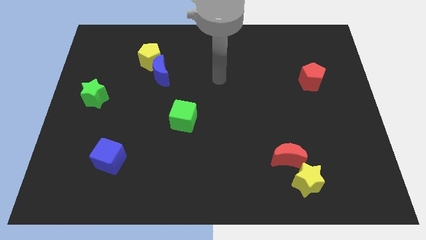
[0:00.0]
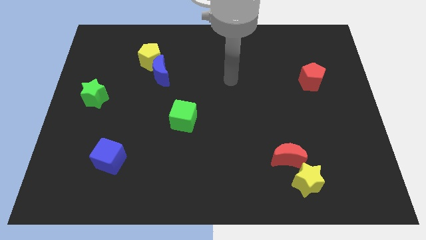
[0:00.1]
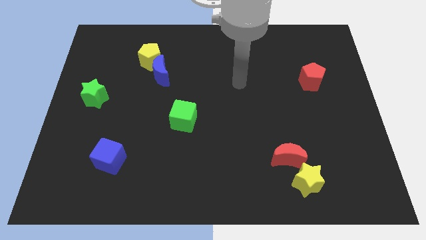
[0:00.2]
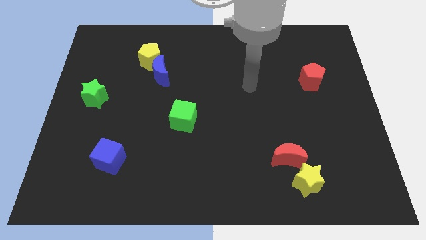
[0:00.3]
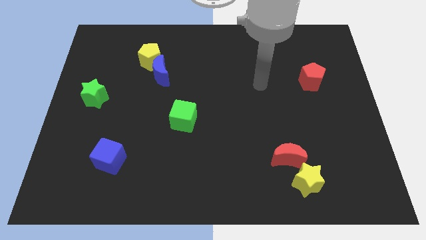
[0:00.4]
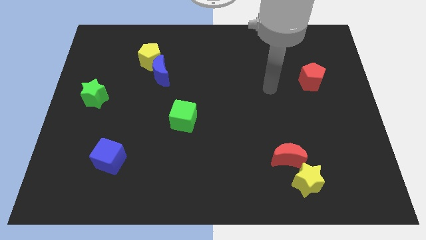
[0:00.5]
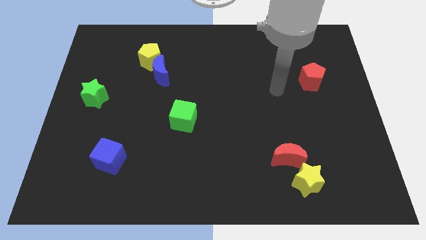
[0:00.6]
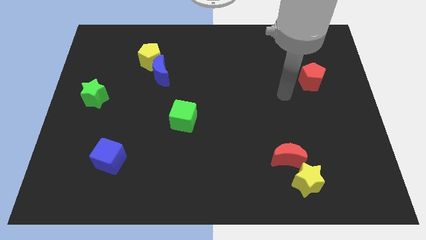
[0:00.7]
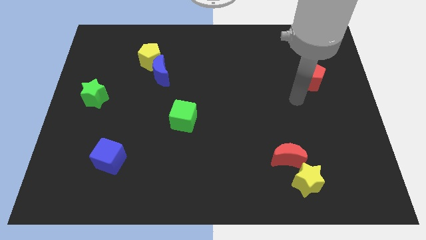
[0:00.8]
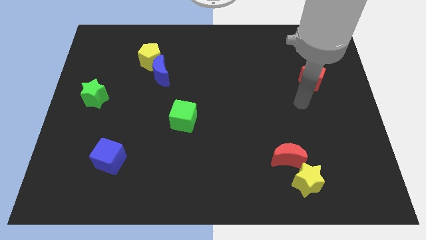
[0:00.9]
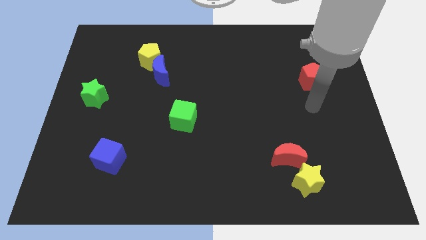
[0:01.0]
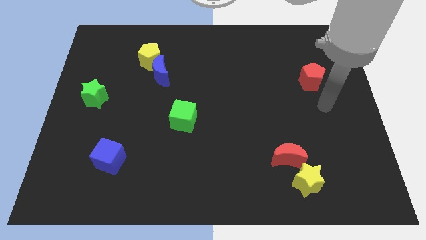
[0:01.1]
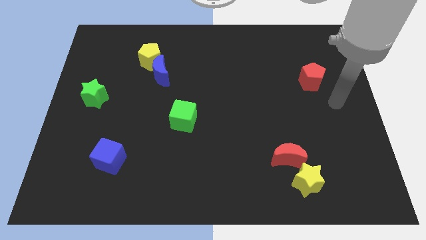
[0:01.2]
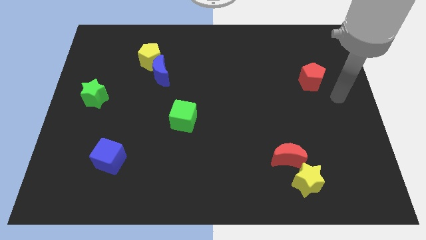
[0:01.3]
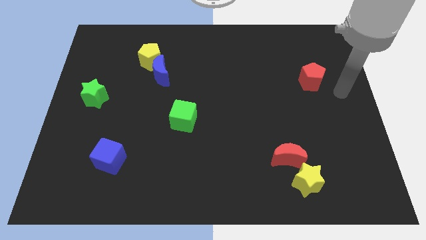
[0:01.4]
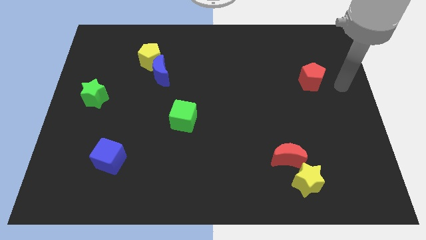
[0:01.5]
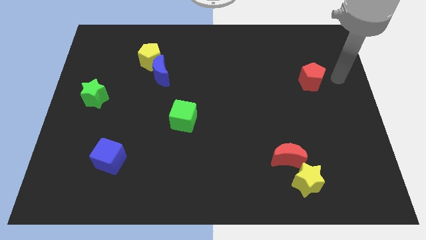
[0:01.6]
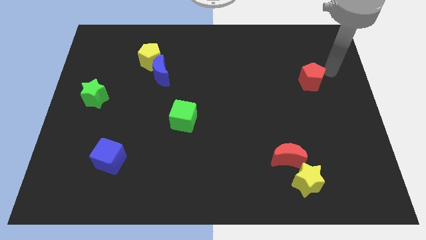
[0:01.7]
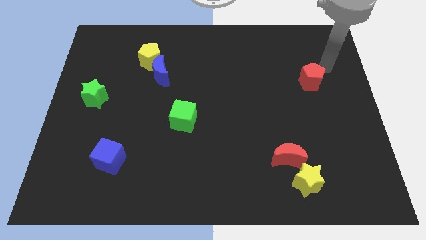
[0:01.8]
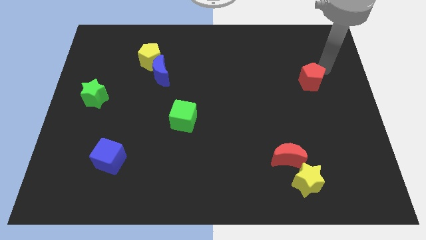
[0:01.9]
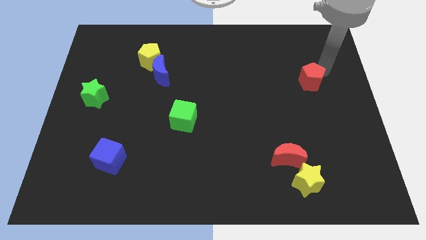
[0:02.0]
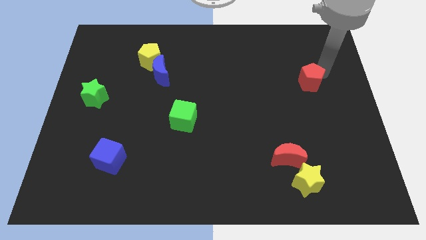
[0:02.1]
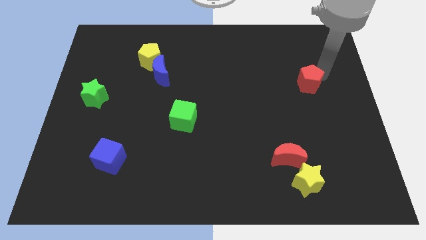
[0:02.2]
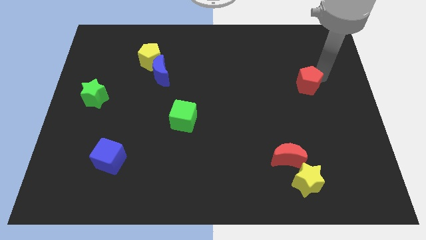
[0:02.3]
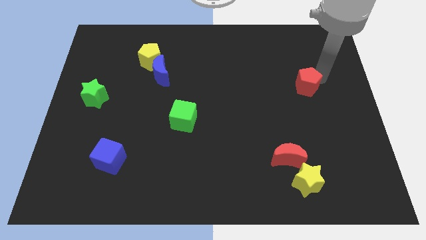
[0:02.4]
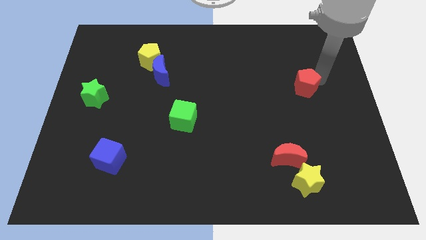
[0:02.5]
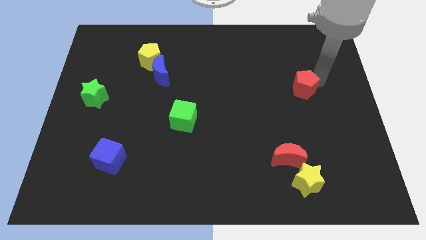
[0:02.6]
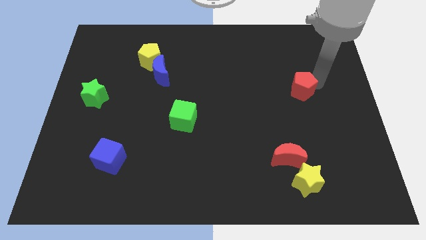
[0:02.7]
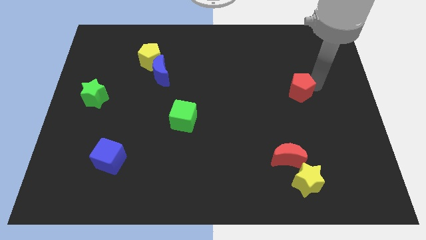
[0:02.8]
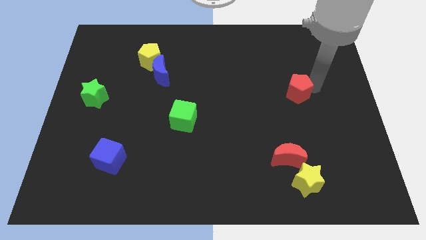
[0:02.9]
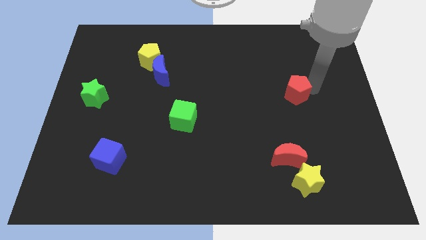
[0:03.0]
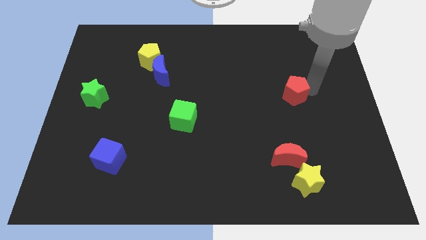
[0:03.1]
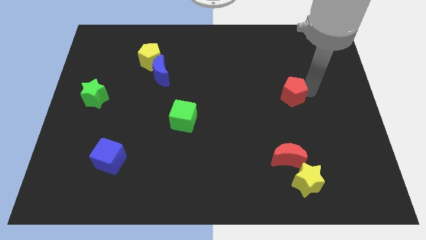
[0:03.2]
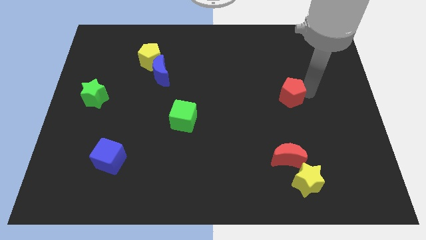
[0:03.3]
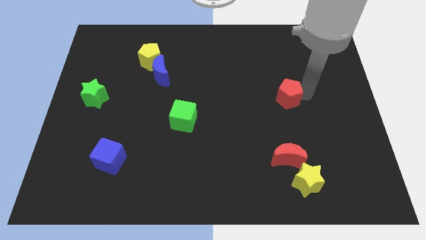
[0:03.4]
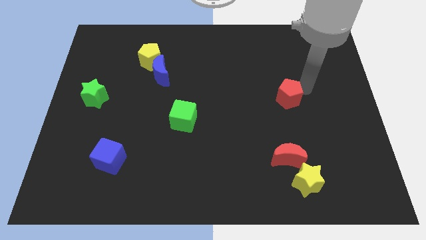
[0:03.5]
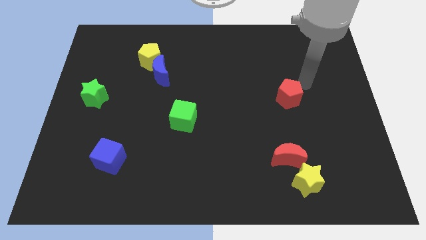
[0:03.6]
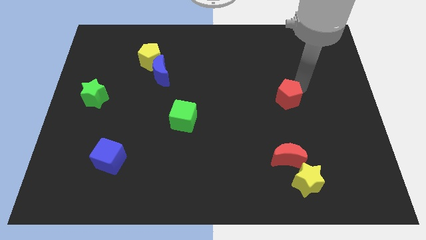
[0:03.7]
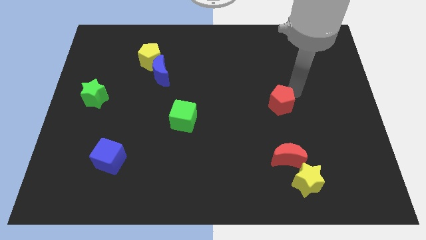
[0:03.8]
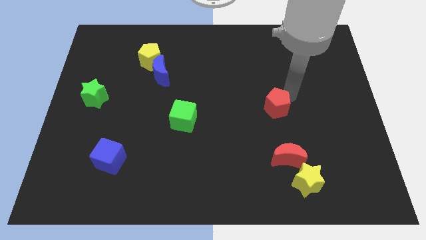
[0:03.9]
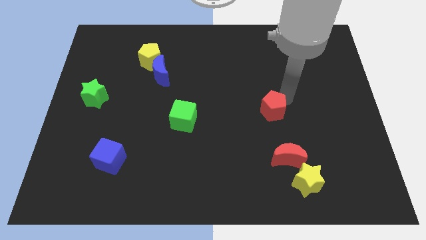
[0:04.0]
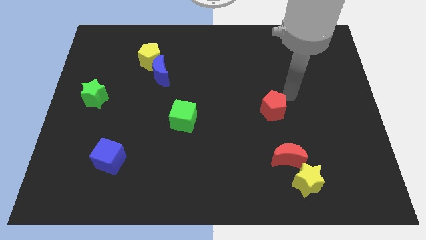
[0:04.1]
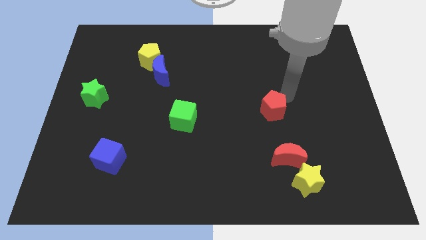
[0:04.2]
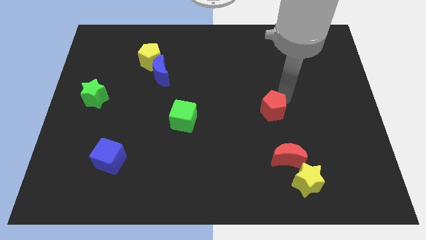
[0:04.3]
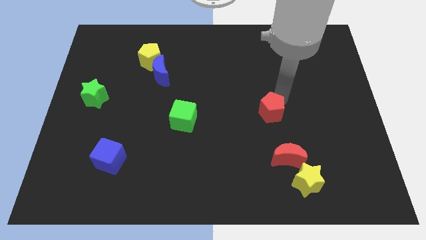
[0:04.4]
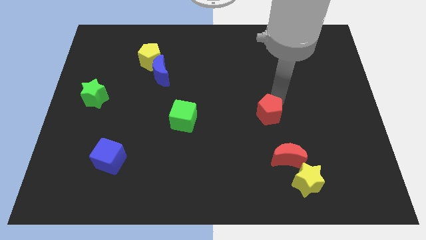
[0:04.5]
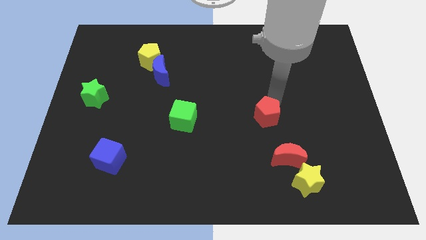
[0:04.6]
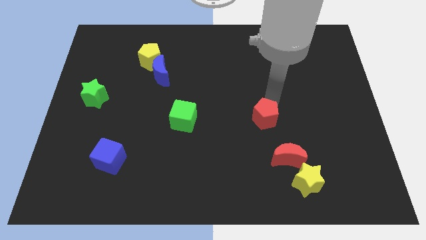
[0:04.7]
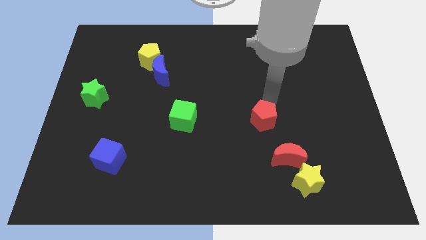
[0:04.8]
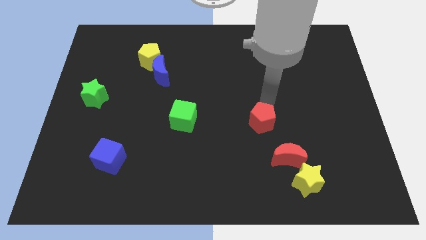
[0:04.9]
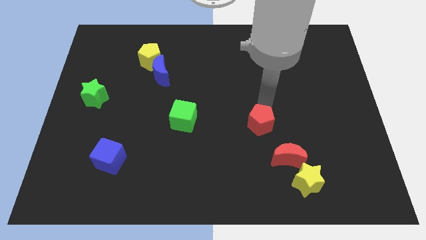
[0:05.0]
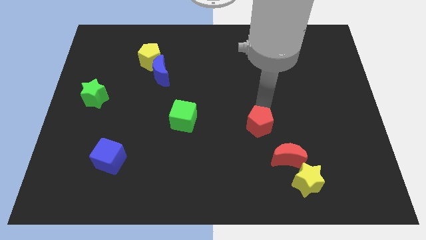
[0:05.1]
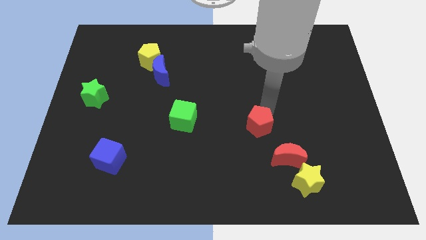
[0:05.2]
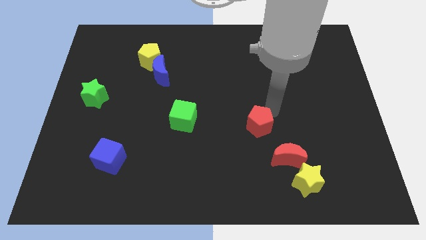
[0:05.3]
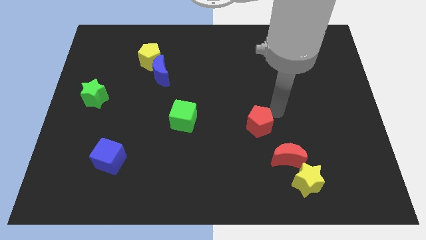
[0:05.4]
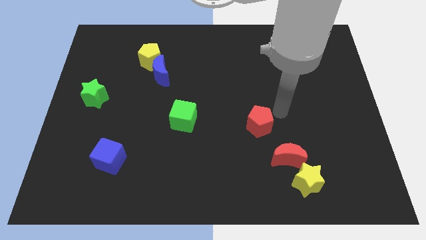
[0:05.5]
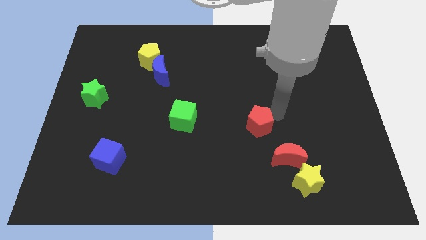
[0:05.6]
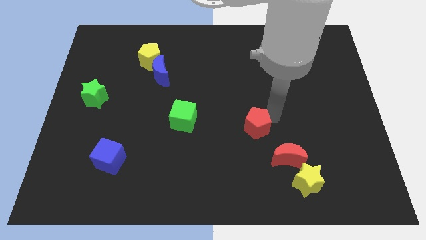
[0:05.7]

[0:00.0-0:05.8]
move the red pentagon down and then left

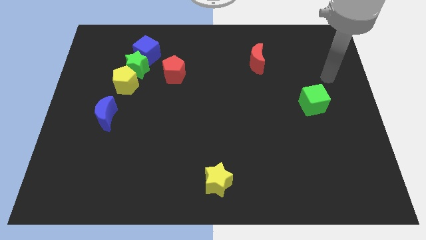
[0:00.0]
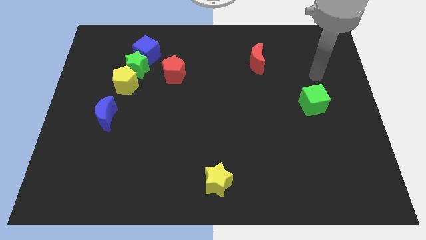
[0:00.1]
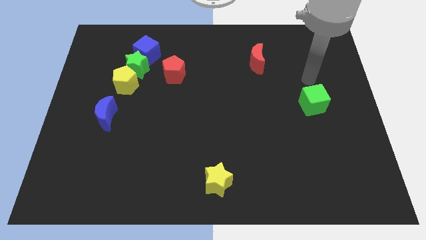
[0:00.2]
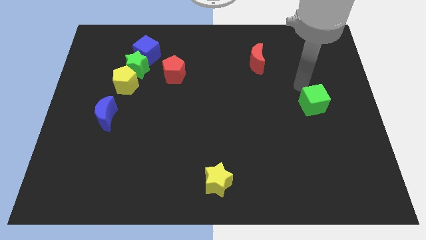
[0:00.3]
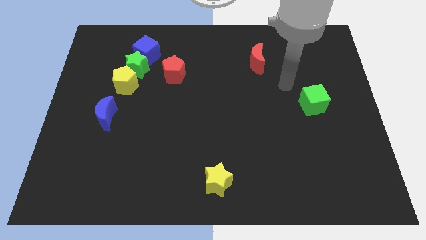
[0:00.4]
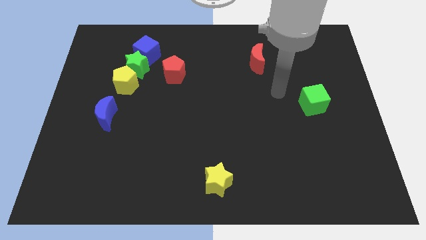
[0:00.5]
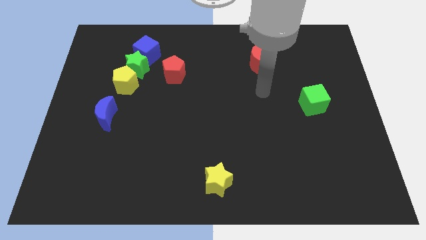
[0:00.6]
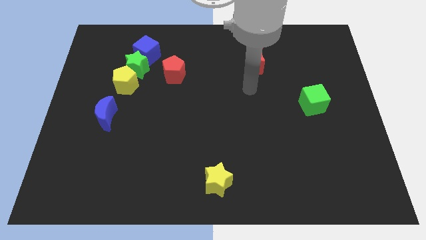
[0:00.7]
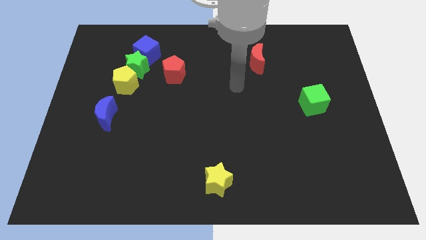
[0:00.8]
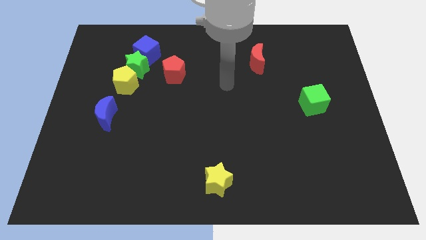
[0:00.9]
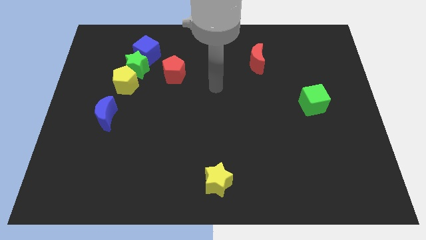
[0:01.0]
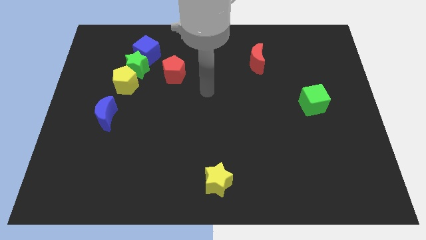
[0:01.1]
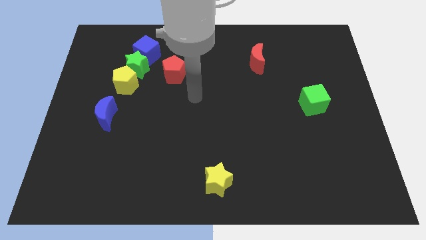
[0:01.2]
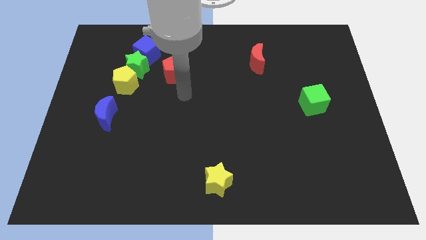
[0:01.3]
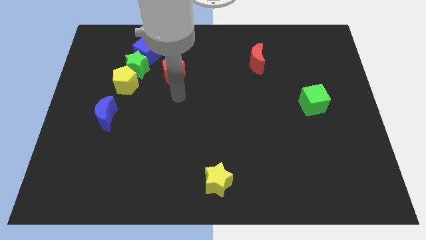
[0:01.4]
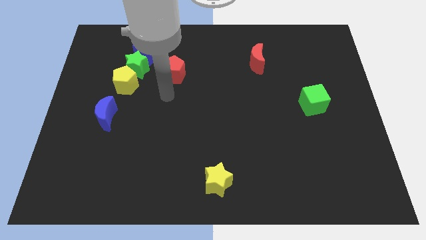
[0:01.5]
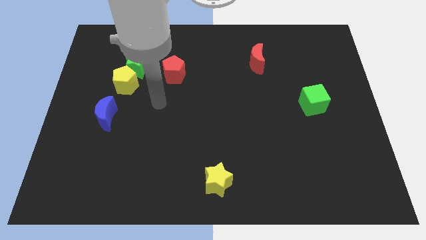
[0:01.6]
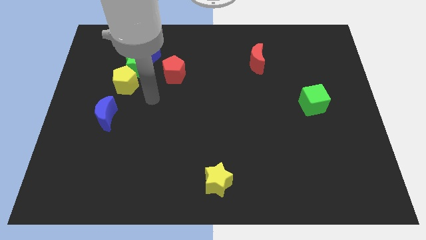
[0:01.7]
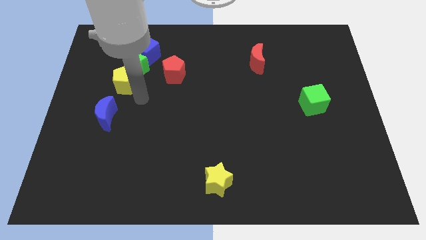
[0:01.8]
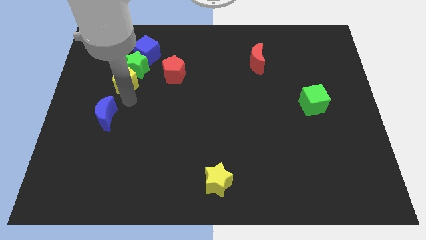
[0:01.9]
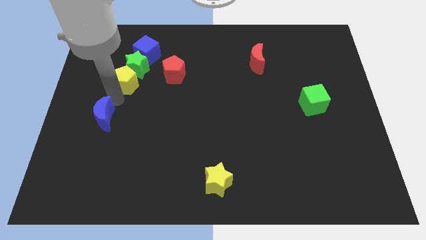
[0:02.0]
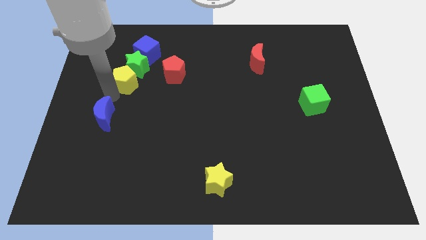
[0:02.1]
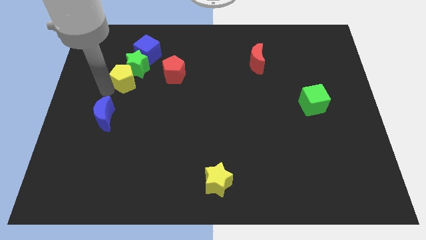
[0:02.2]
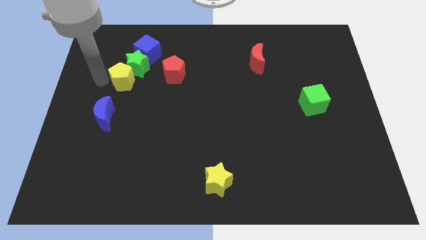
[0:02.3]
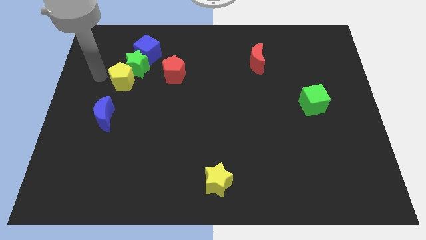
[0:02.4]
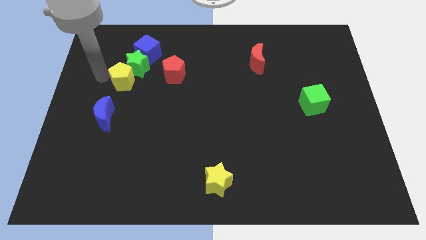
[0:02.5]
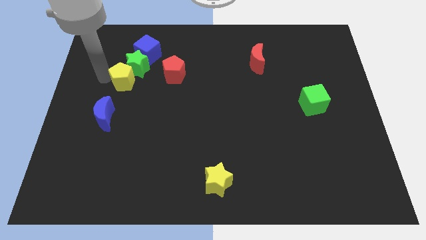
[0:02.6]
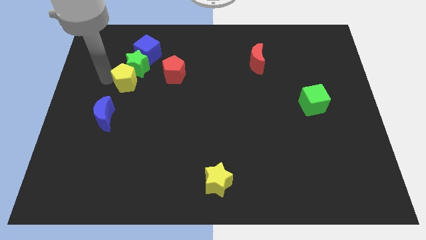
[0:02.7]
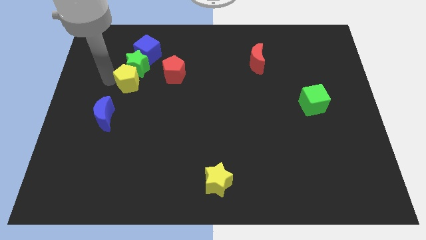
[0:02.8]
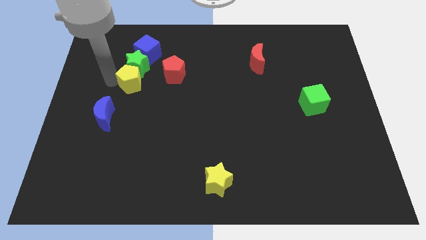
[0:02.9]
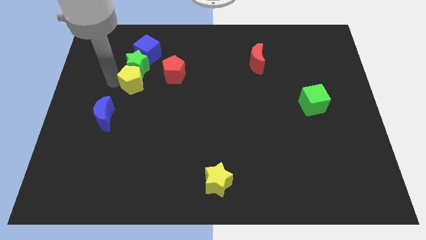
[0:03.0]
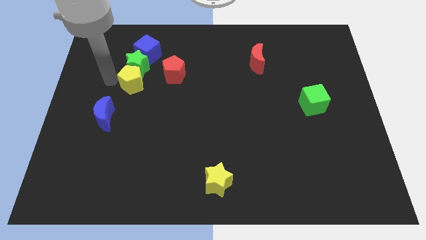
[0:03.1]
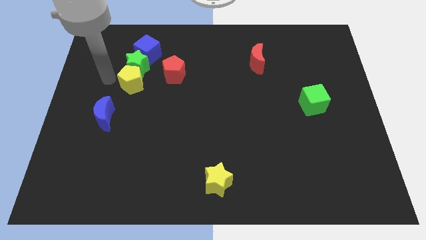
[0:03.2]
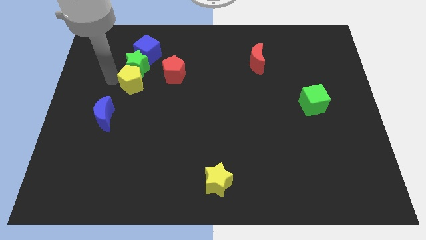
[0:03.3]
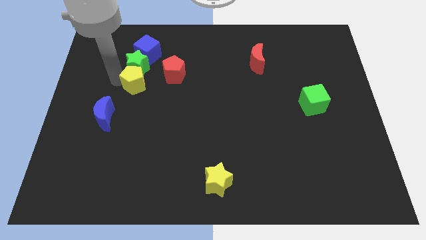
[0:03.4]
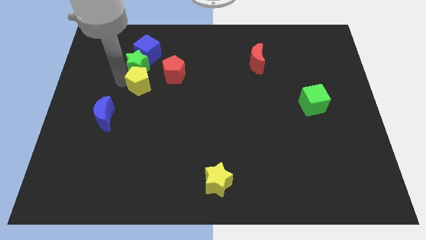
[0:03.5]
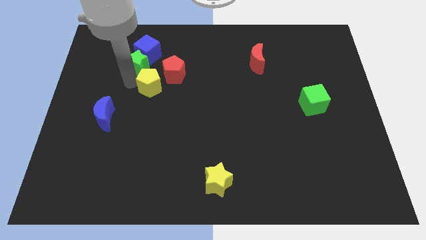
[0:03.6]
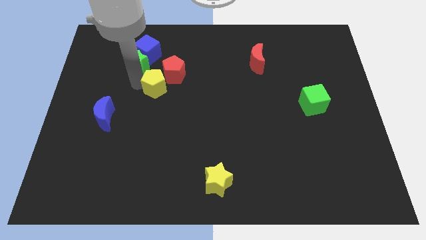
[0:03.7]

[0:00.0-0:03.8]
slide the yellow pentagon right a little bit
